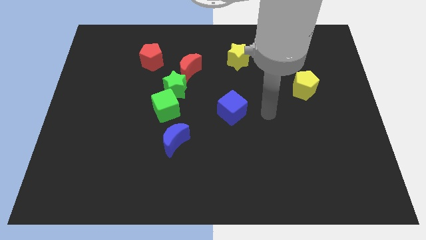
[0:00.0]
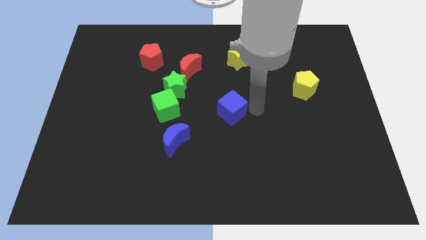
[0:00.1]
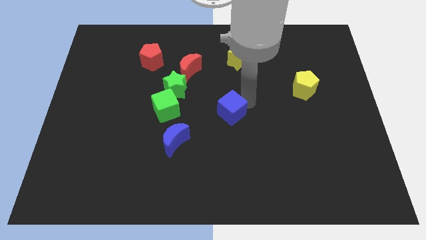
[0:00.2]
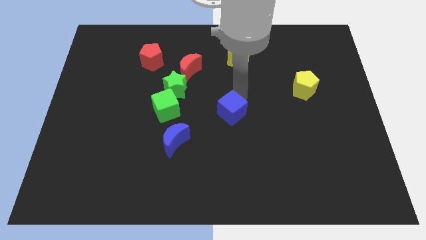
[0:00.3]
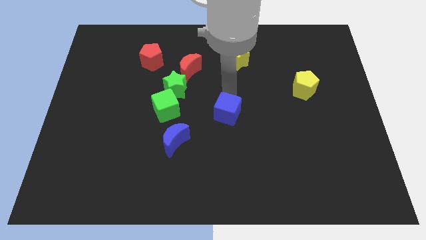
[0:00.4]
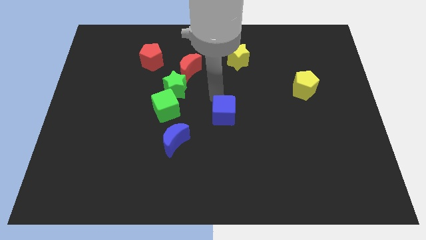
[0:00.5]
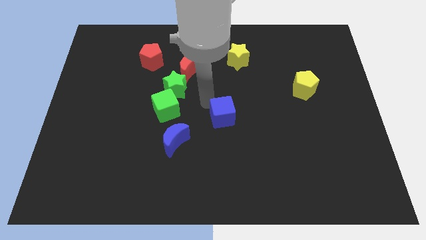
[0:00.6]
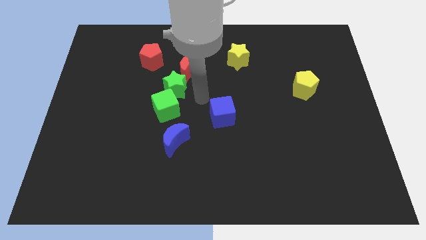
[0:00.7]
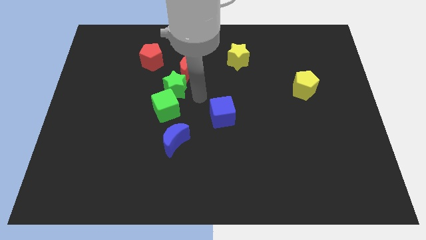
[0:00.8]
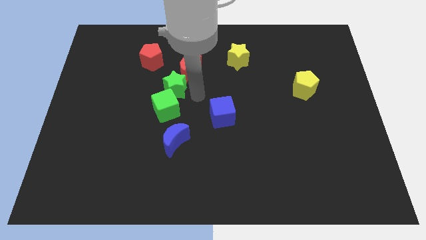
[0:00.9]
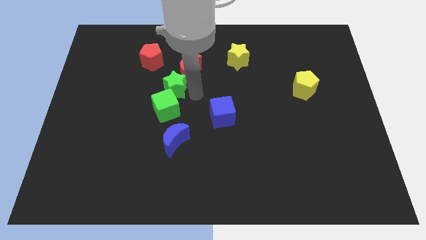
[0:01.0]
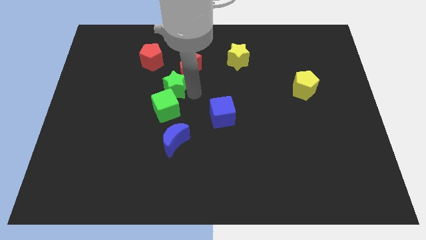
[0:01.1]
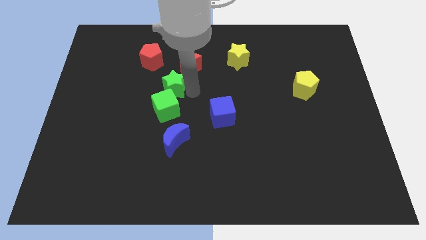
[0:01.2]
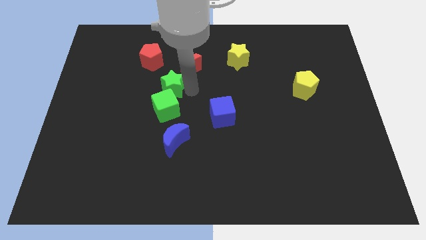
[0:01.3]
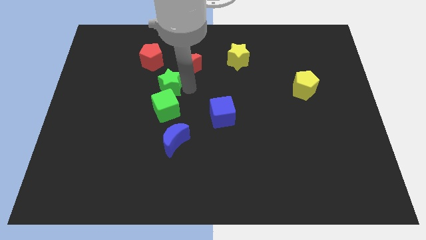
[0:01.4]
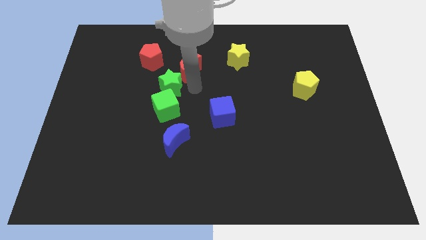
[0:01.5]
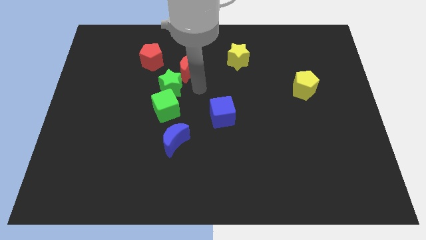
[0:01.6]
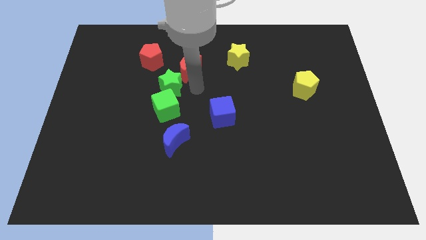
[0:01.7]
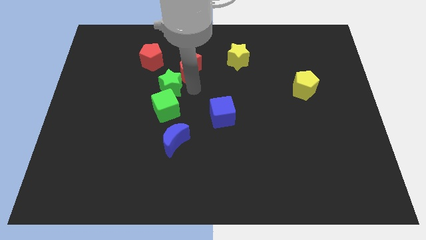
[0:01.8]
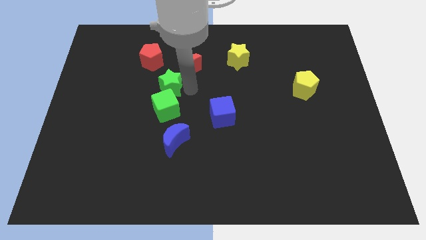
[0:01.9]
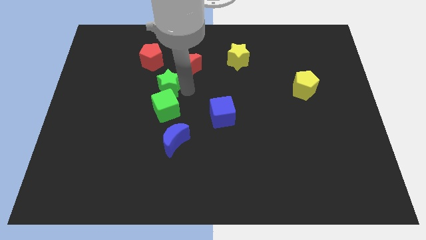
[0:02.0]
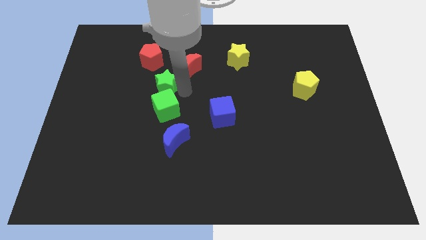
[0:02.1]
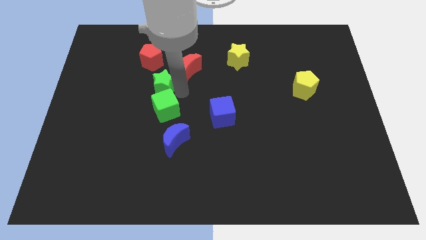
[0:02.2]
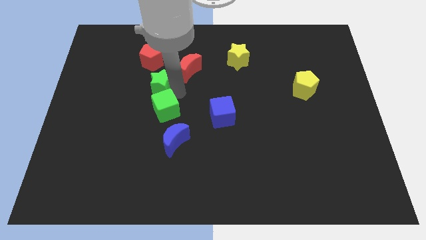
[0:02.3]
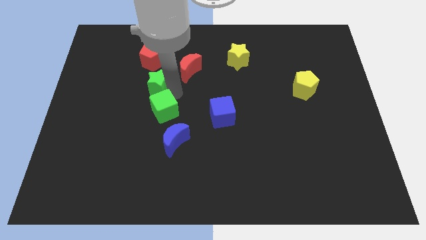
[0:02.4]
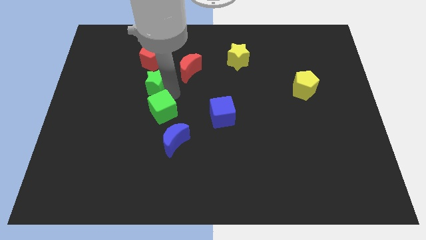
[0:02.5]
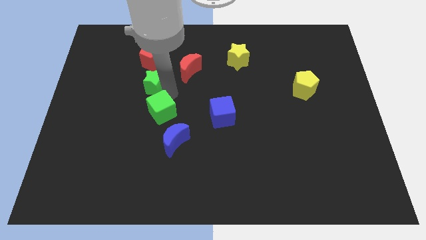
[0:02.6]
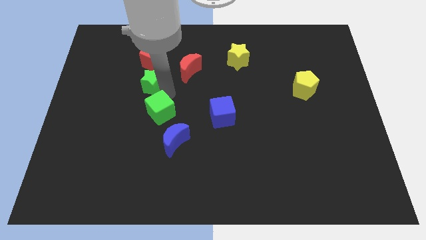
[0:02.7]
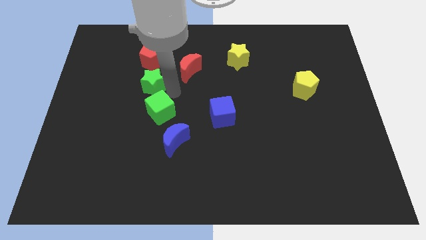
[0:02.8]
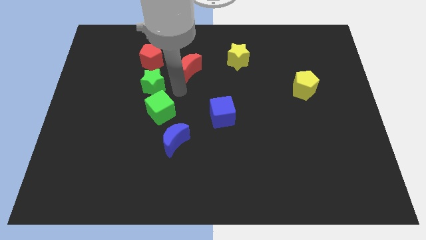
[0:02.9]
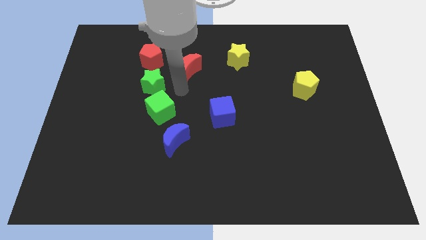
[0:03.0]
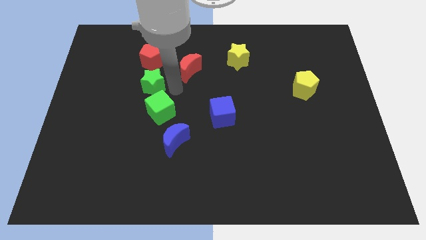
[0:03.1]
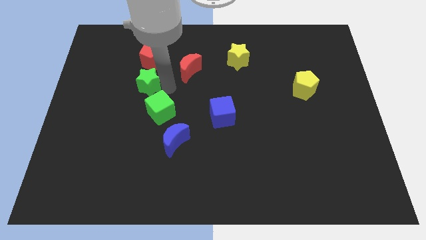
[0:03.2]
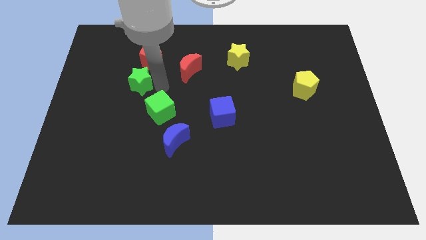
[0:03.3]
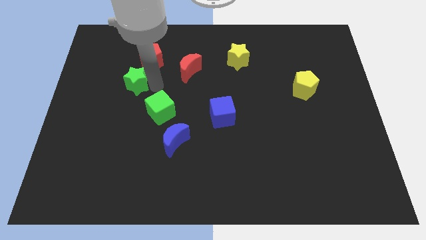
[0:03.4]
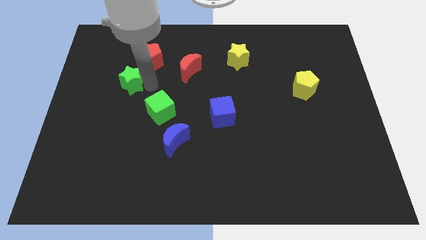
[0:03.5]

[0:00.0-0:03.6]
separate the green star from the green cube and red moon

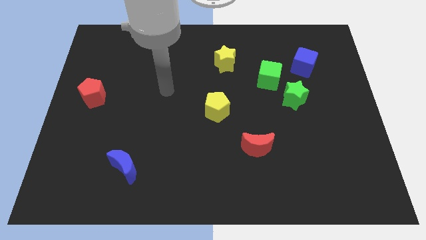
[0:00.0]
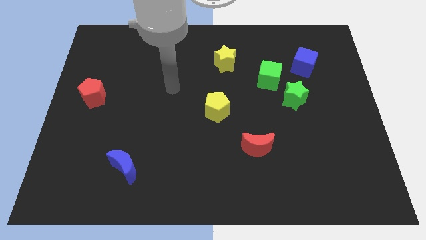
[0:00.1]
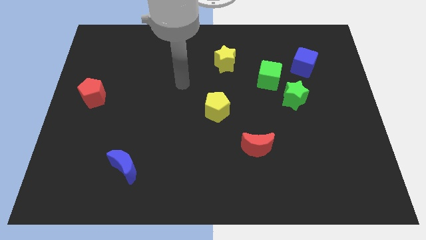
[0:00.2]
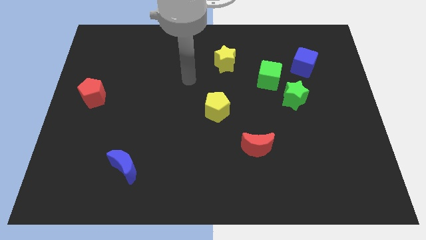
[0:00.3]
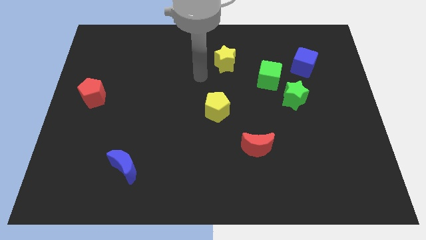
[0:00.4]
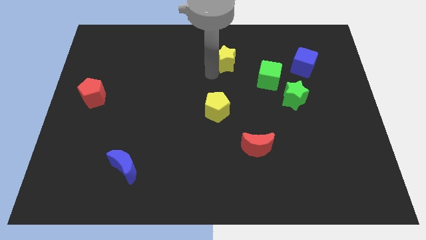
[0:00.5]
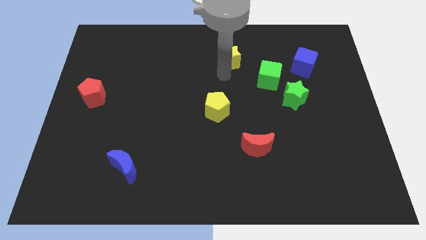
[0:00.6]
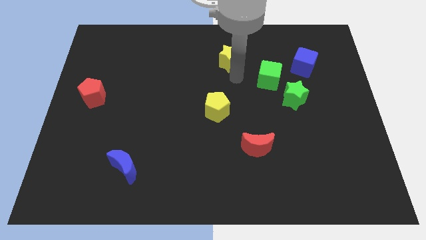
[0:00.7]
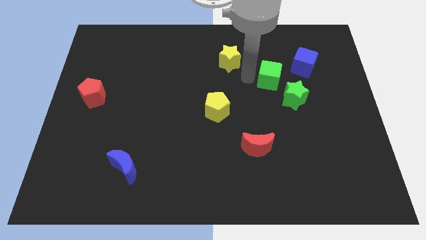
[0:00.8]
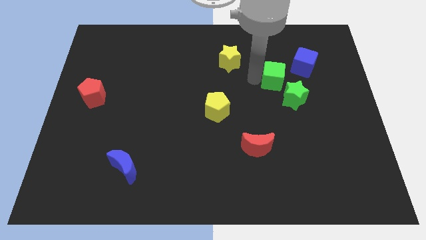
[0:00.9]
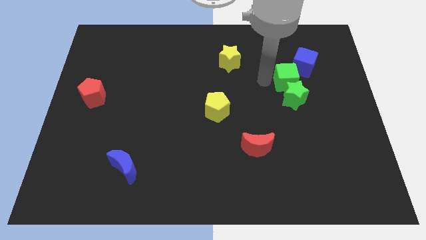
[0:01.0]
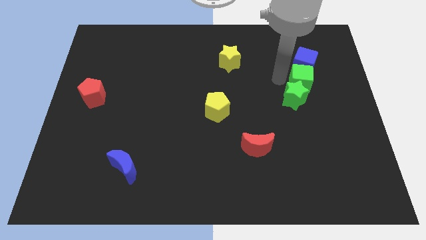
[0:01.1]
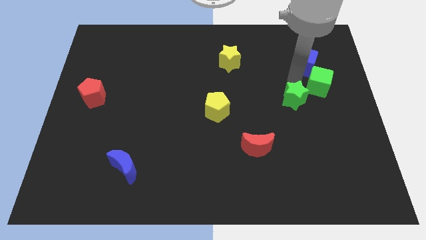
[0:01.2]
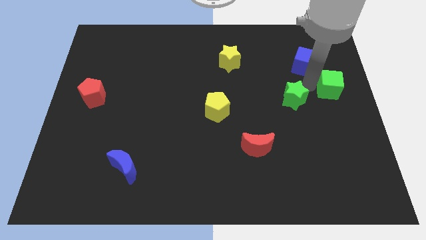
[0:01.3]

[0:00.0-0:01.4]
move the green star away from the green cube

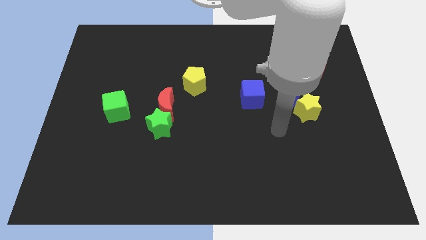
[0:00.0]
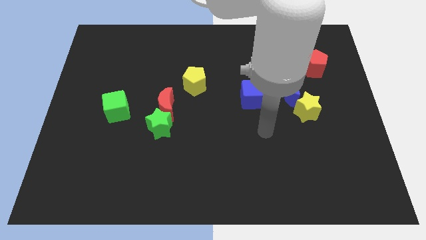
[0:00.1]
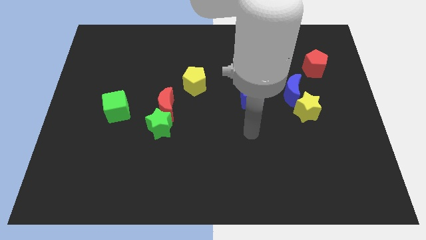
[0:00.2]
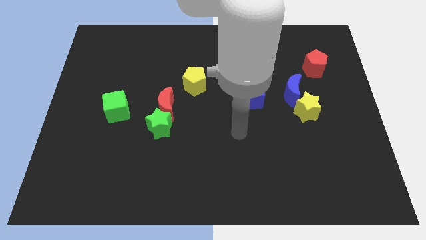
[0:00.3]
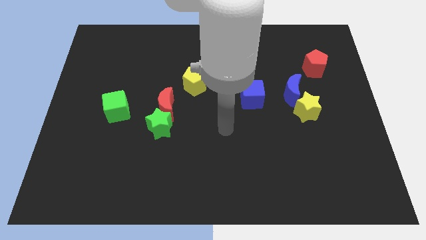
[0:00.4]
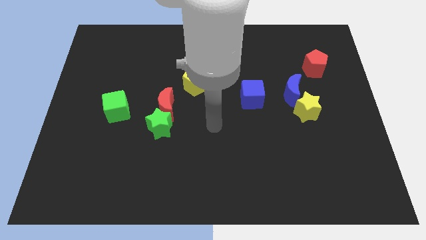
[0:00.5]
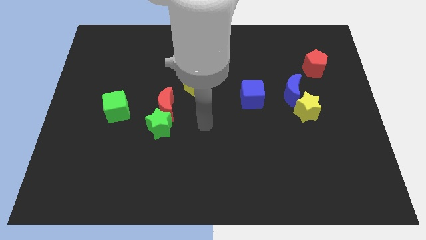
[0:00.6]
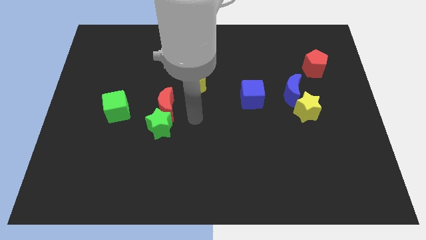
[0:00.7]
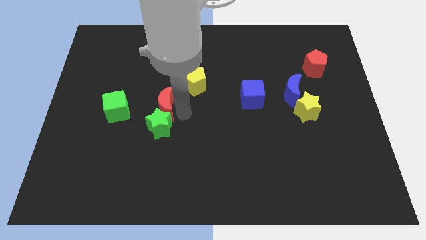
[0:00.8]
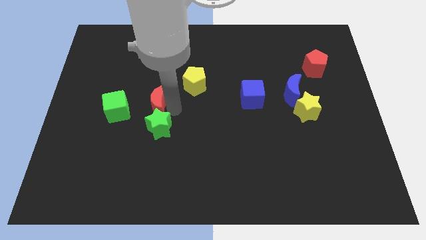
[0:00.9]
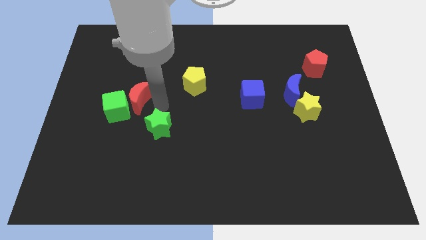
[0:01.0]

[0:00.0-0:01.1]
pull the green star apart from the red moon

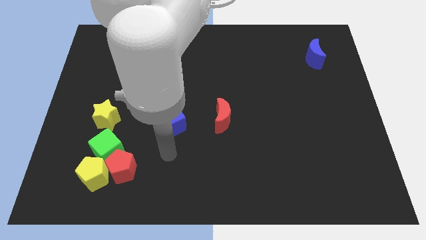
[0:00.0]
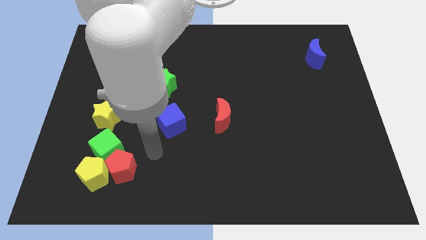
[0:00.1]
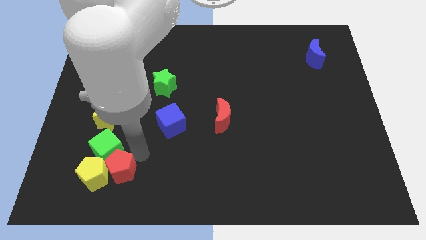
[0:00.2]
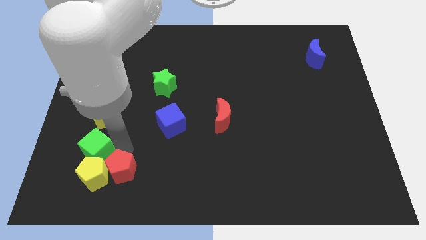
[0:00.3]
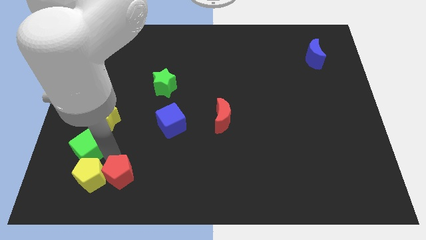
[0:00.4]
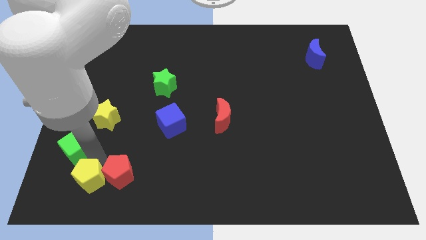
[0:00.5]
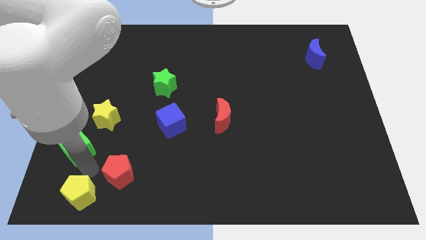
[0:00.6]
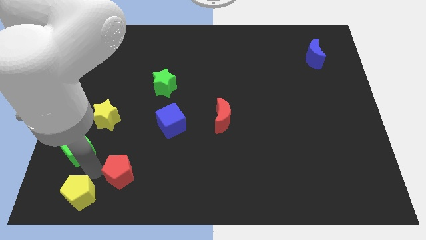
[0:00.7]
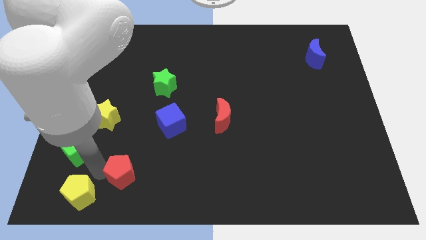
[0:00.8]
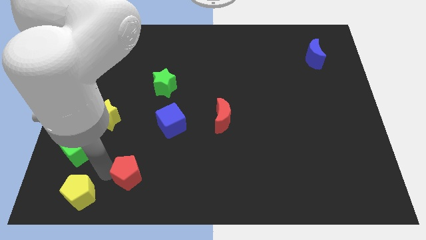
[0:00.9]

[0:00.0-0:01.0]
separate the red pentagon from the yellow pentagon and green cube

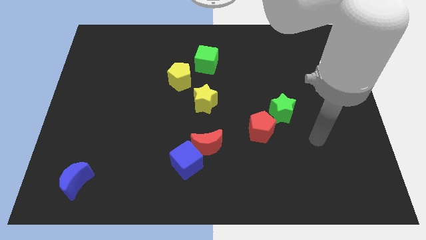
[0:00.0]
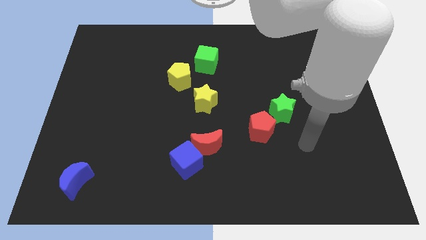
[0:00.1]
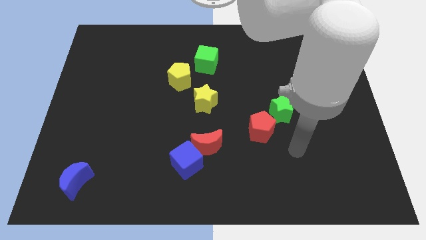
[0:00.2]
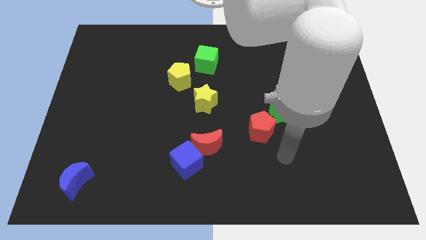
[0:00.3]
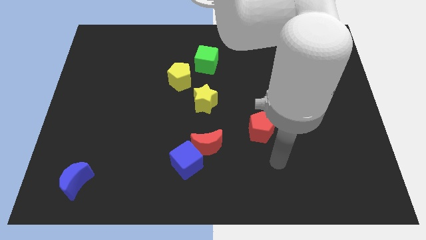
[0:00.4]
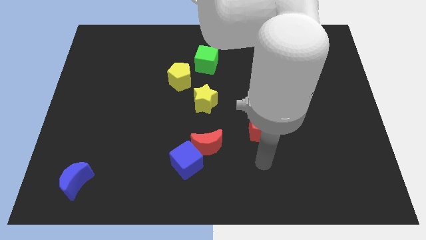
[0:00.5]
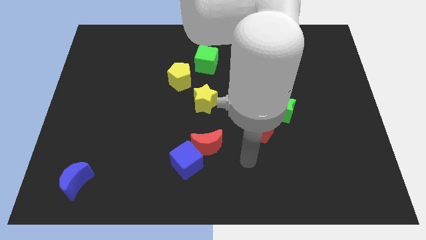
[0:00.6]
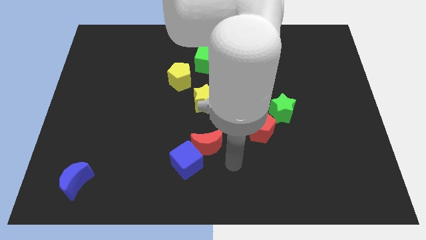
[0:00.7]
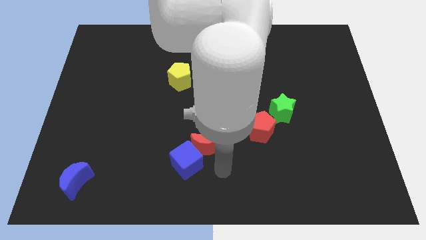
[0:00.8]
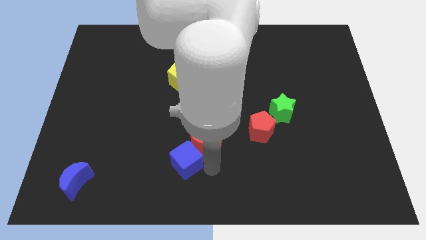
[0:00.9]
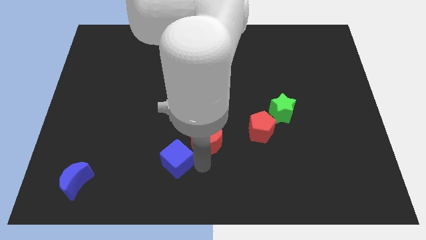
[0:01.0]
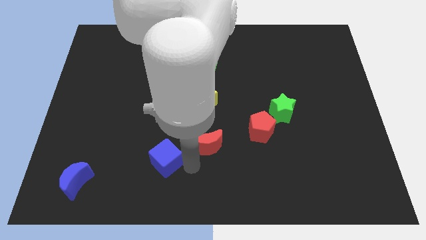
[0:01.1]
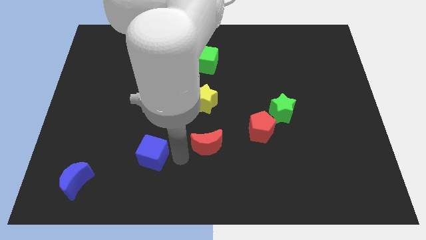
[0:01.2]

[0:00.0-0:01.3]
move the red moon away from the blue cube

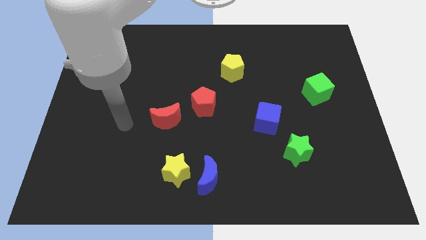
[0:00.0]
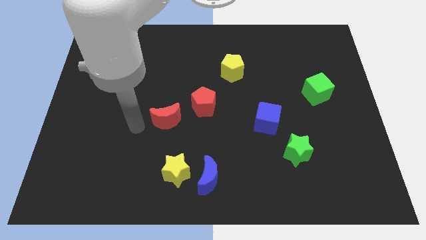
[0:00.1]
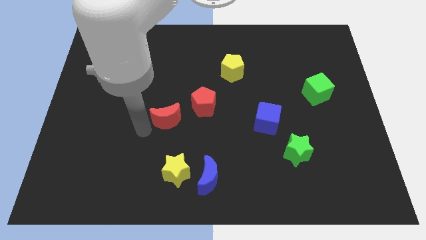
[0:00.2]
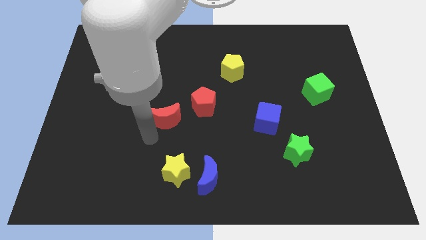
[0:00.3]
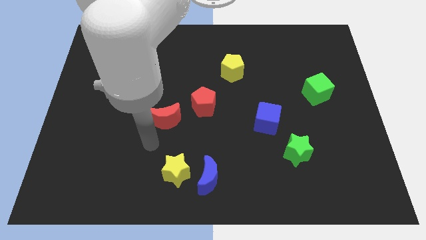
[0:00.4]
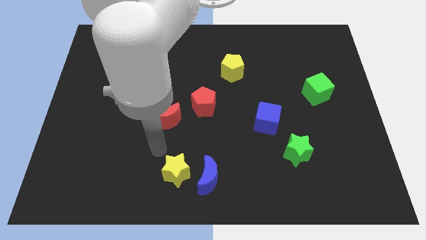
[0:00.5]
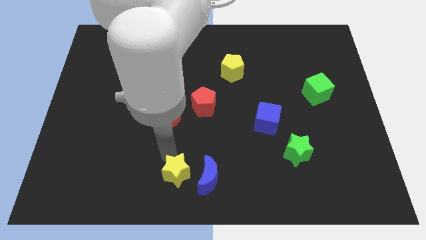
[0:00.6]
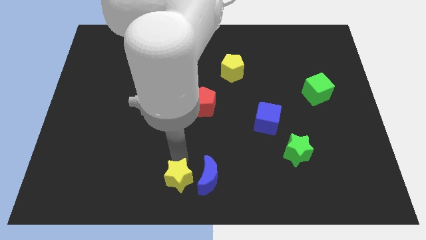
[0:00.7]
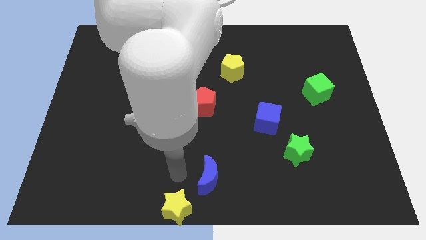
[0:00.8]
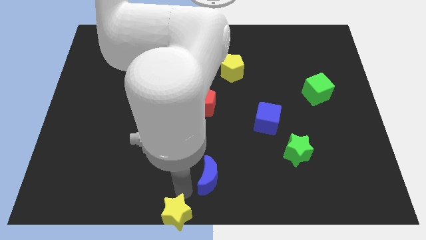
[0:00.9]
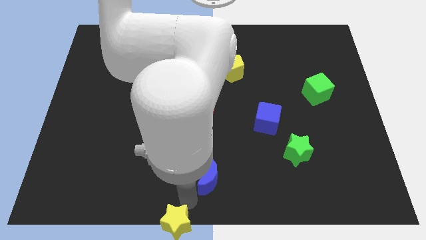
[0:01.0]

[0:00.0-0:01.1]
separate the blue moon from the yellow star
